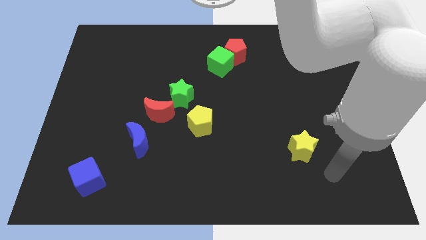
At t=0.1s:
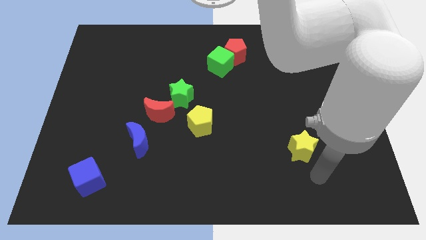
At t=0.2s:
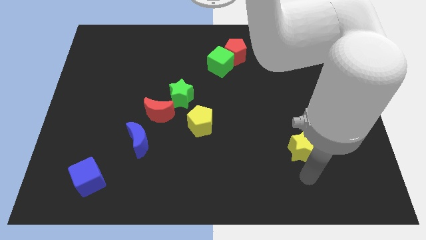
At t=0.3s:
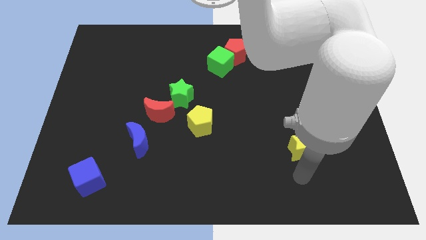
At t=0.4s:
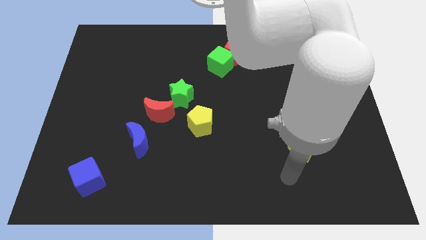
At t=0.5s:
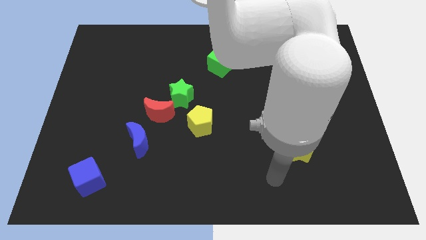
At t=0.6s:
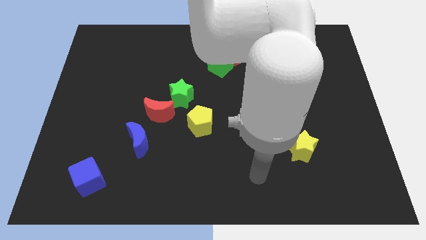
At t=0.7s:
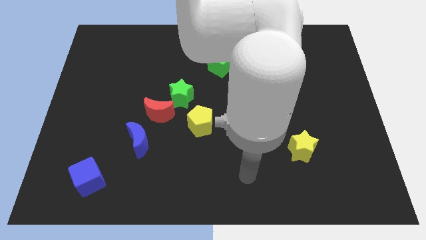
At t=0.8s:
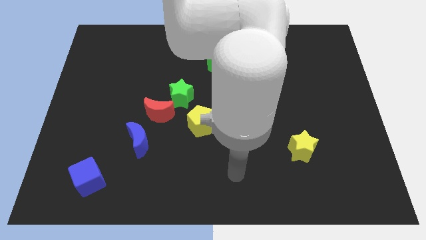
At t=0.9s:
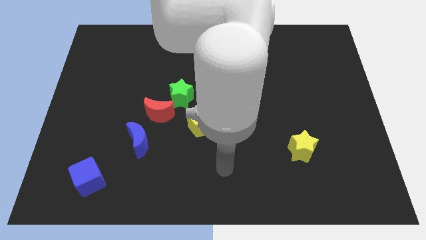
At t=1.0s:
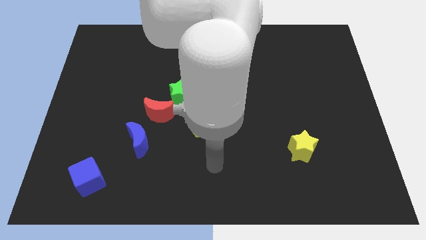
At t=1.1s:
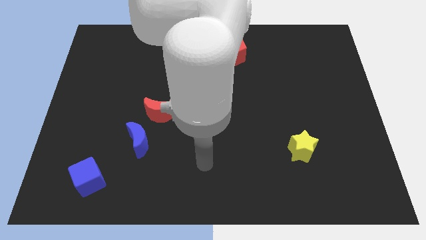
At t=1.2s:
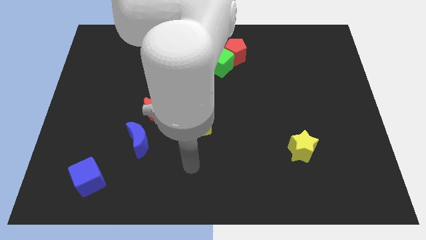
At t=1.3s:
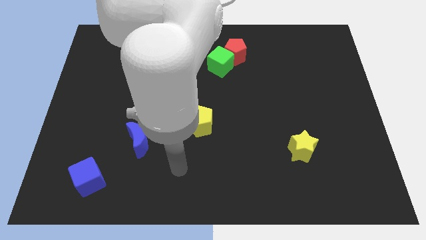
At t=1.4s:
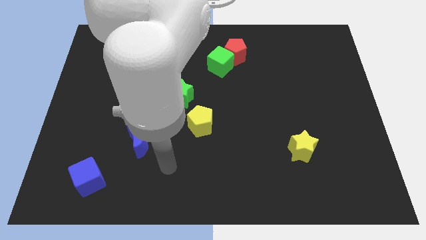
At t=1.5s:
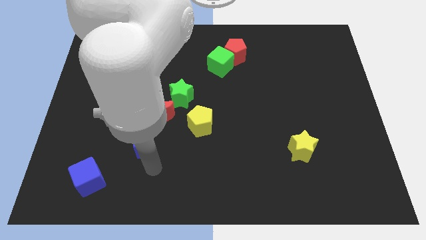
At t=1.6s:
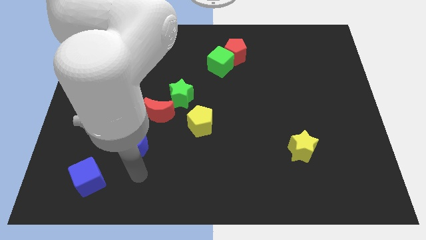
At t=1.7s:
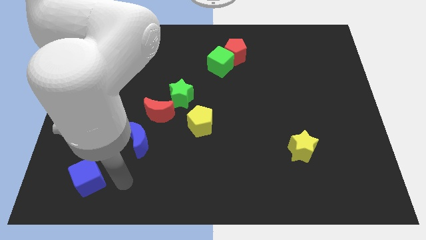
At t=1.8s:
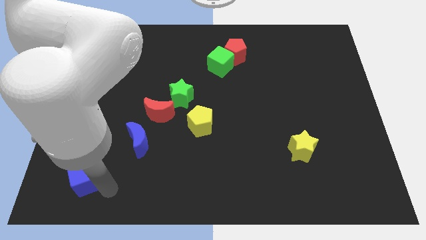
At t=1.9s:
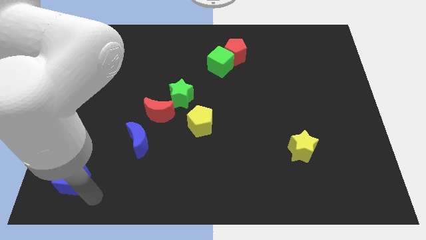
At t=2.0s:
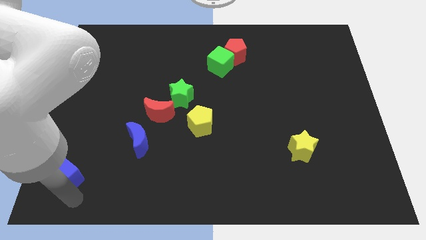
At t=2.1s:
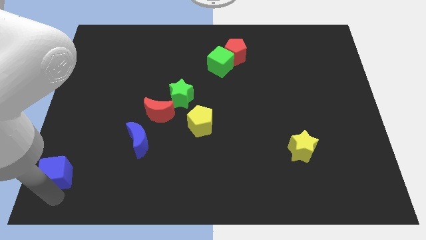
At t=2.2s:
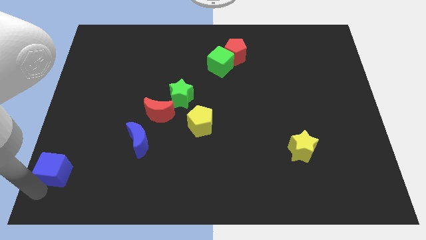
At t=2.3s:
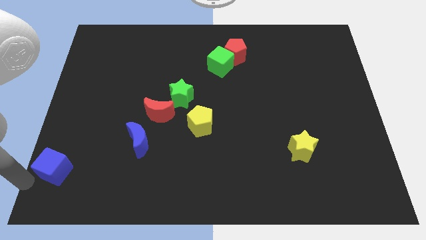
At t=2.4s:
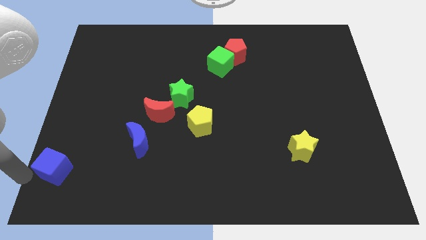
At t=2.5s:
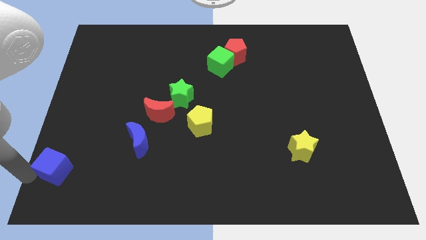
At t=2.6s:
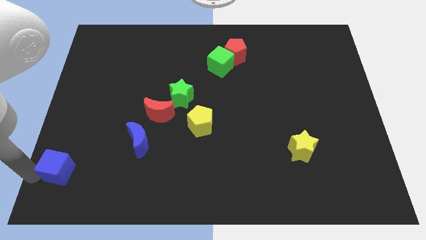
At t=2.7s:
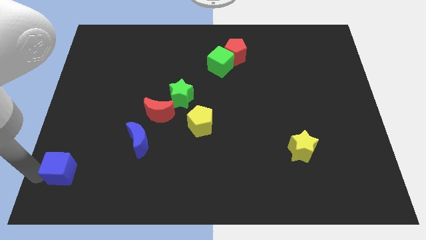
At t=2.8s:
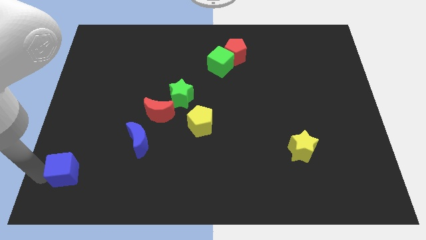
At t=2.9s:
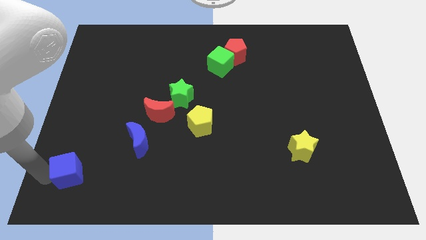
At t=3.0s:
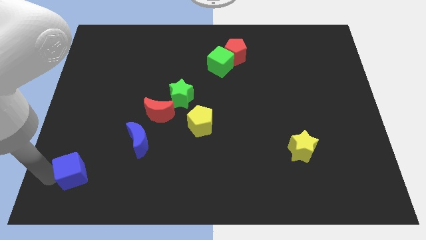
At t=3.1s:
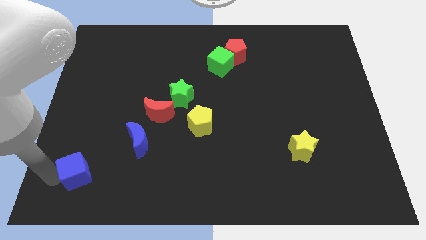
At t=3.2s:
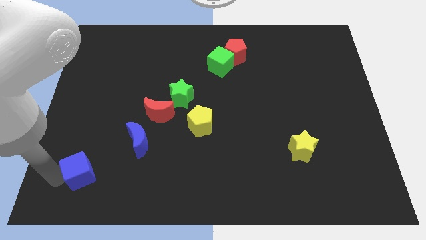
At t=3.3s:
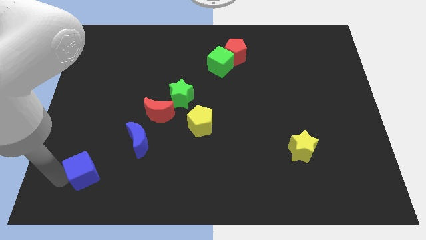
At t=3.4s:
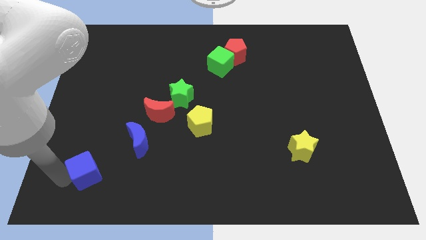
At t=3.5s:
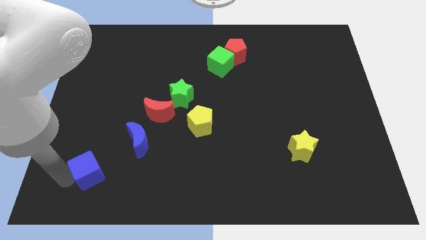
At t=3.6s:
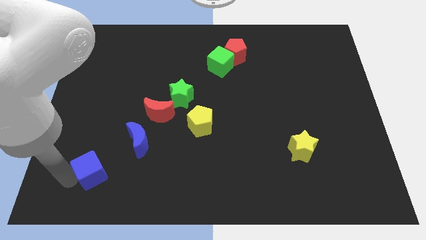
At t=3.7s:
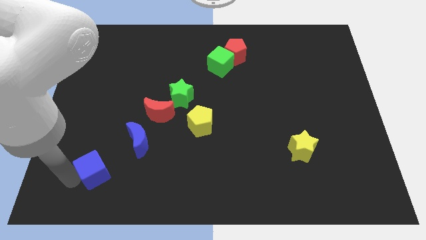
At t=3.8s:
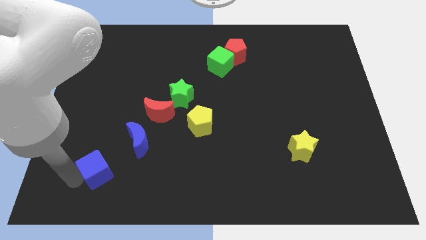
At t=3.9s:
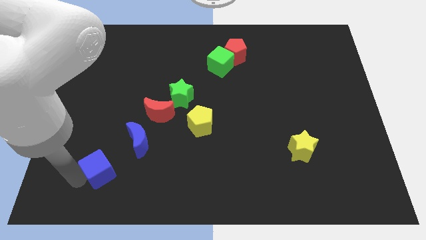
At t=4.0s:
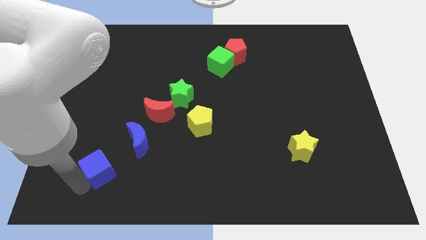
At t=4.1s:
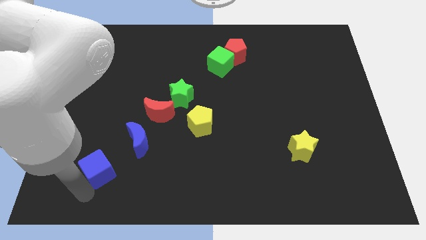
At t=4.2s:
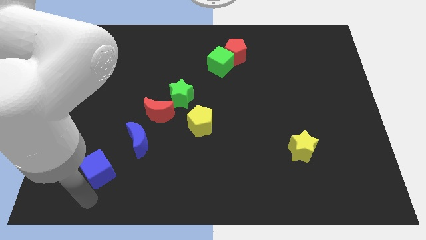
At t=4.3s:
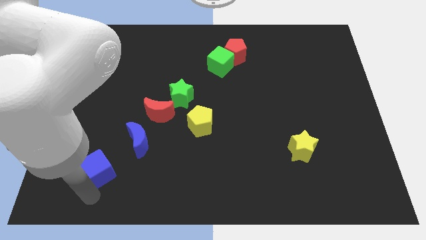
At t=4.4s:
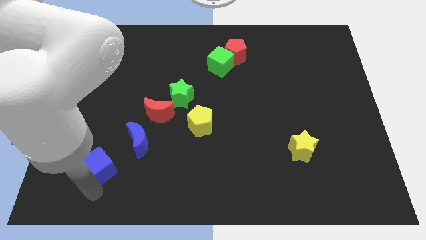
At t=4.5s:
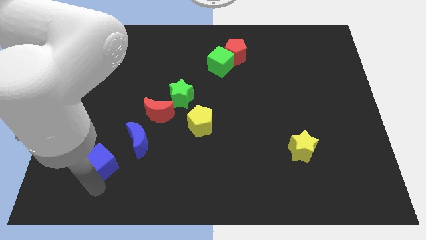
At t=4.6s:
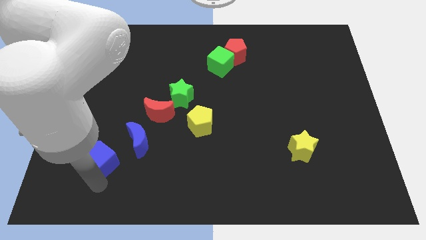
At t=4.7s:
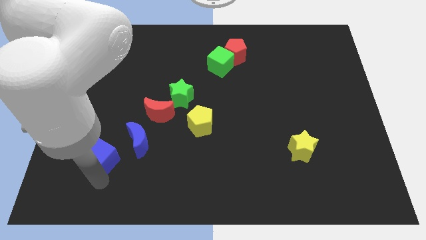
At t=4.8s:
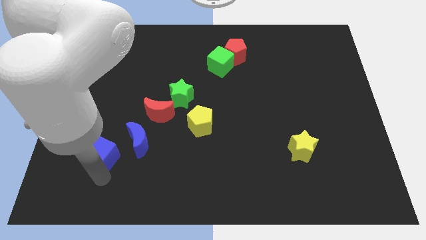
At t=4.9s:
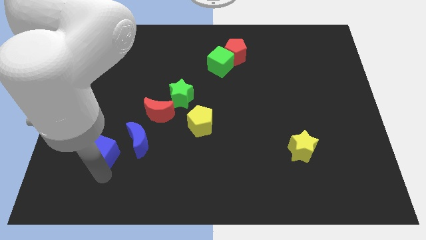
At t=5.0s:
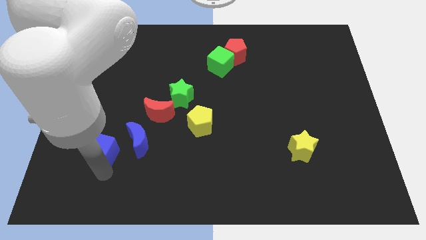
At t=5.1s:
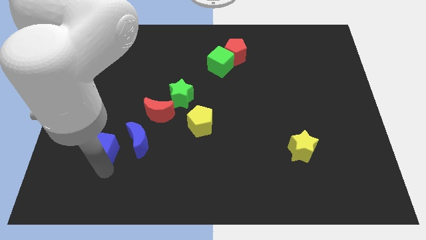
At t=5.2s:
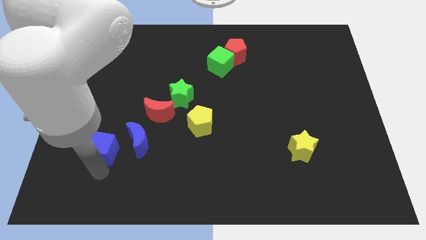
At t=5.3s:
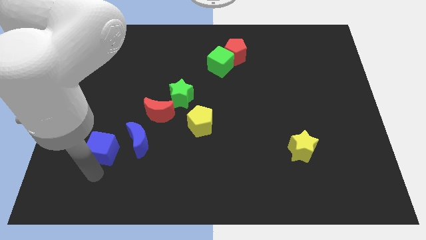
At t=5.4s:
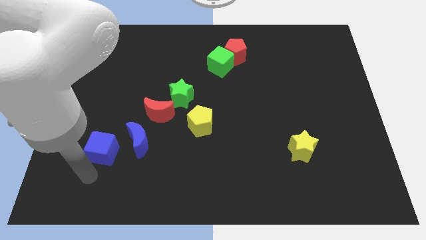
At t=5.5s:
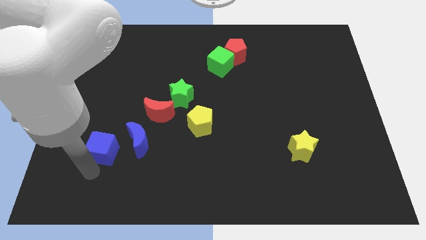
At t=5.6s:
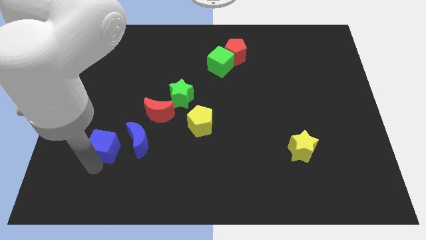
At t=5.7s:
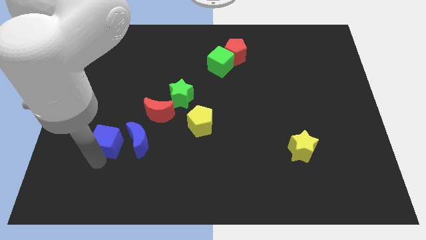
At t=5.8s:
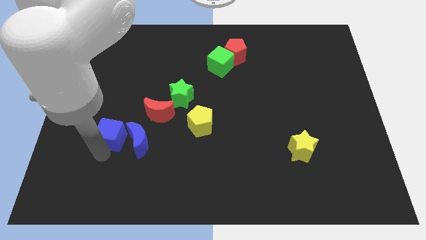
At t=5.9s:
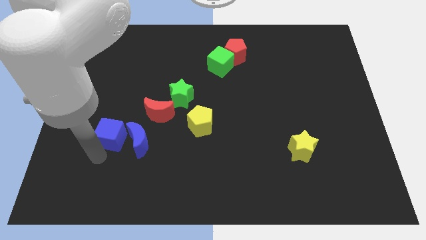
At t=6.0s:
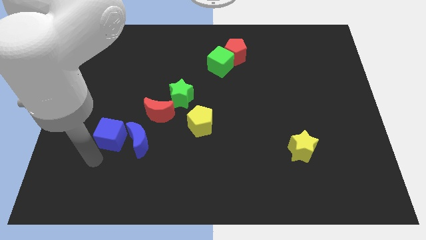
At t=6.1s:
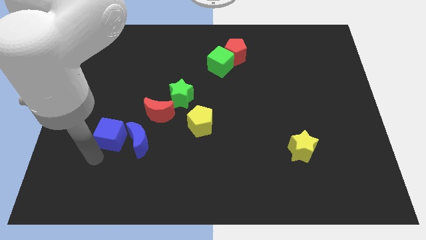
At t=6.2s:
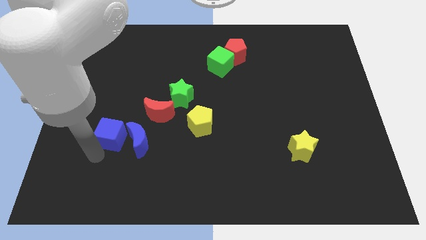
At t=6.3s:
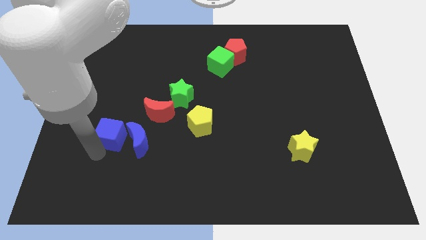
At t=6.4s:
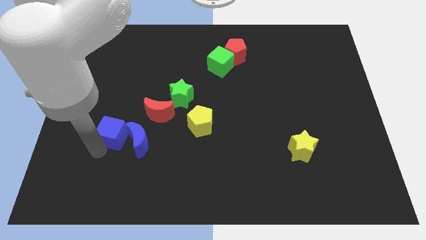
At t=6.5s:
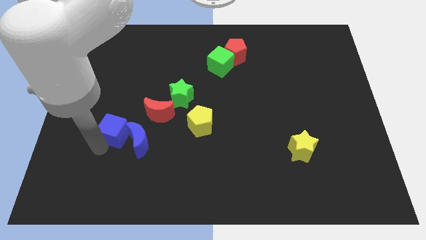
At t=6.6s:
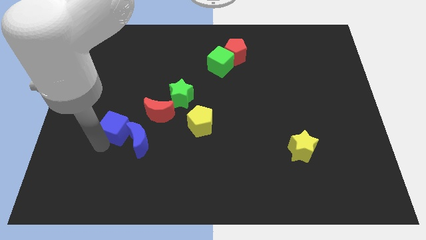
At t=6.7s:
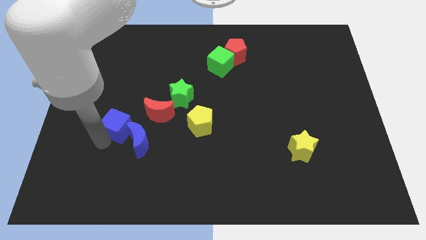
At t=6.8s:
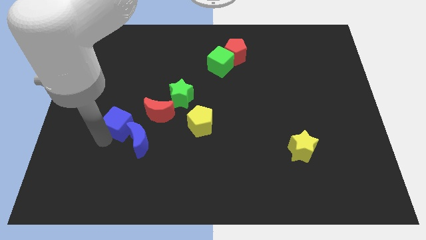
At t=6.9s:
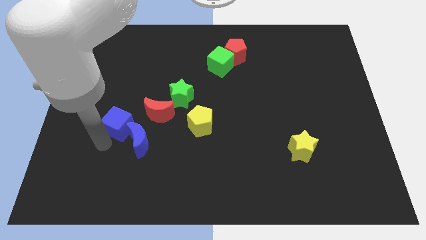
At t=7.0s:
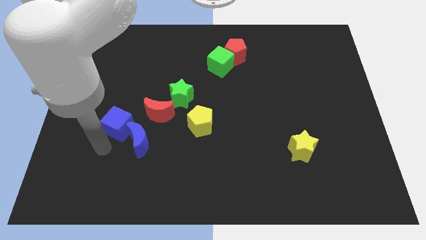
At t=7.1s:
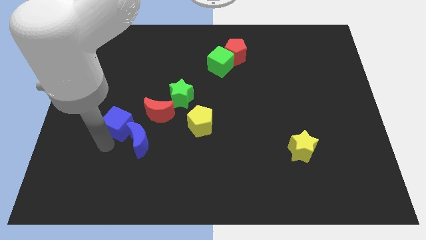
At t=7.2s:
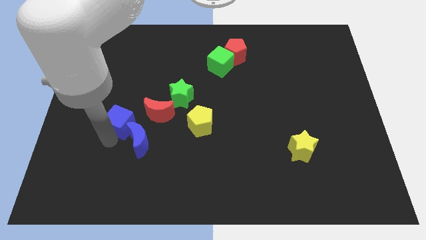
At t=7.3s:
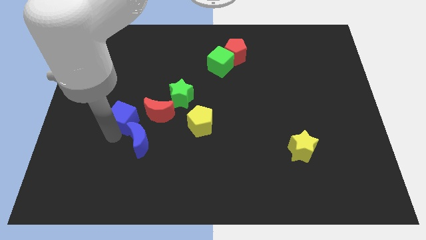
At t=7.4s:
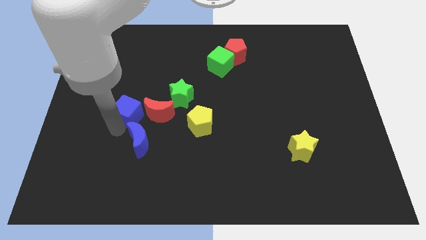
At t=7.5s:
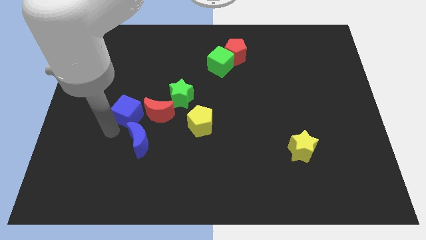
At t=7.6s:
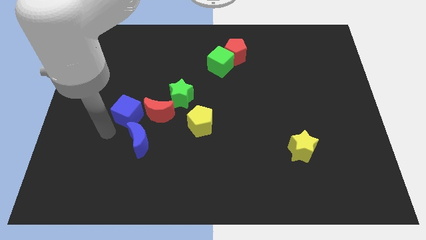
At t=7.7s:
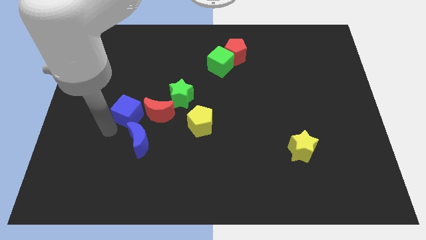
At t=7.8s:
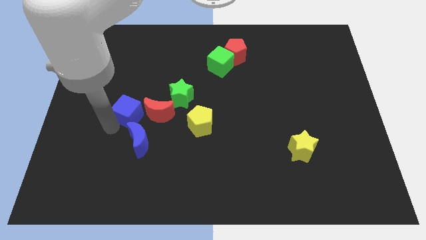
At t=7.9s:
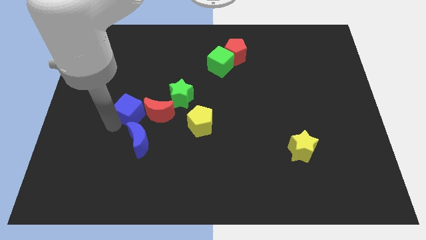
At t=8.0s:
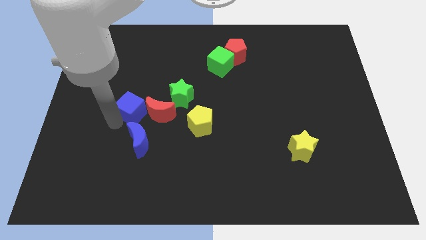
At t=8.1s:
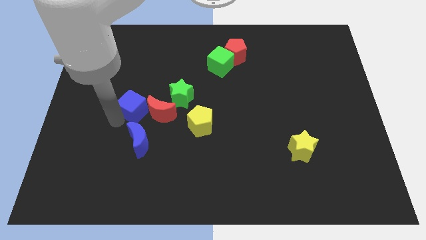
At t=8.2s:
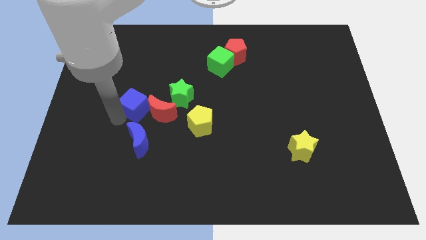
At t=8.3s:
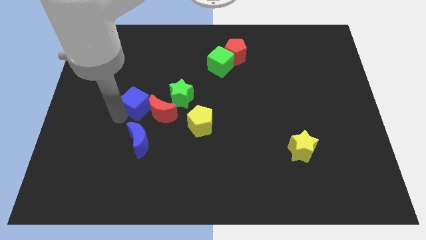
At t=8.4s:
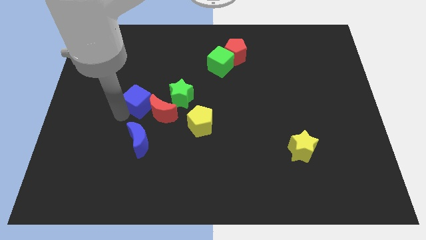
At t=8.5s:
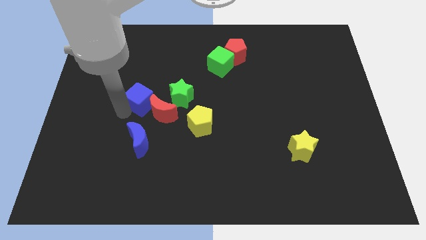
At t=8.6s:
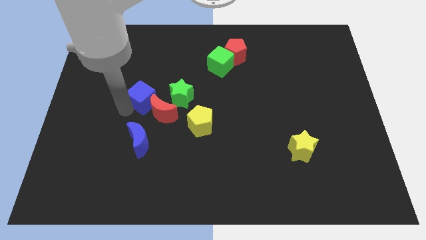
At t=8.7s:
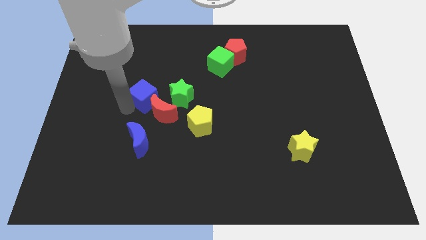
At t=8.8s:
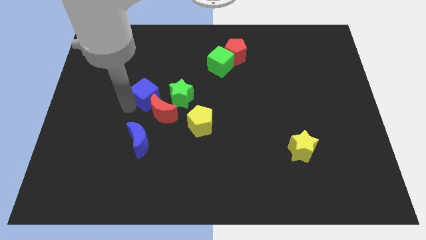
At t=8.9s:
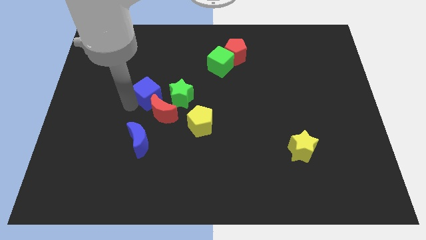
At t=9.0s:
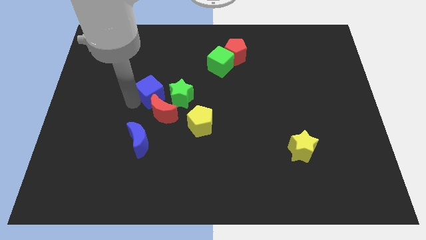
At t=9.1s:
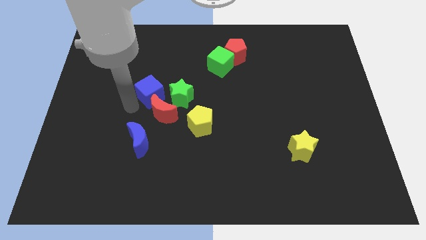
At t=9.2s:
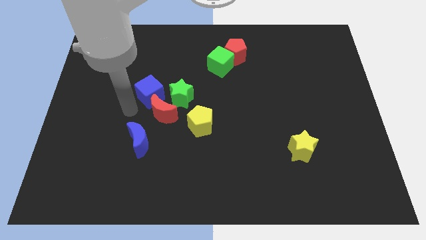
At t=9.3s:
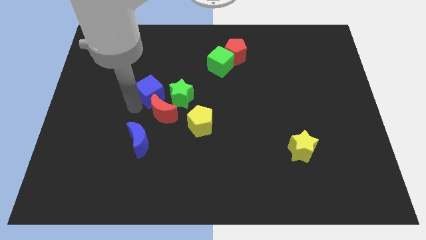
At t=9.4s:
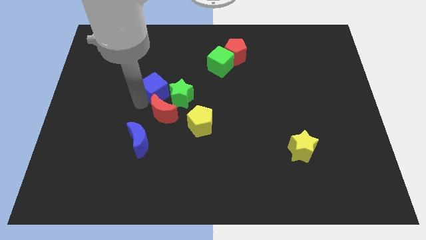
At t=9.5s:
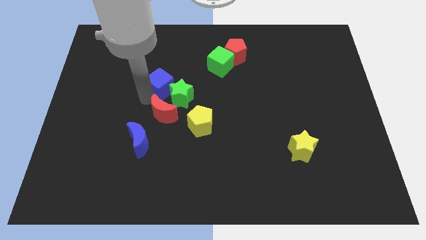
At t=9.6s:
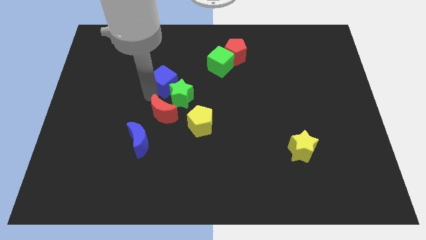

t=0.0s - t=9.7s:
move the blue cube to the top of the green star
